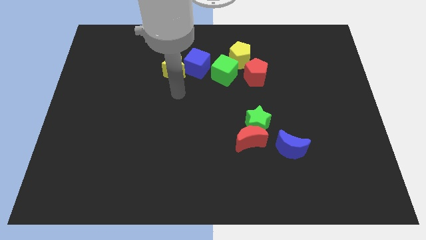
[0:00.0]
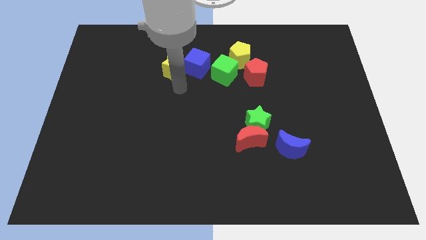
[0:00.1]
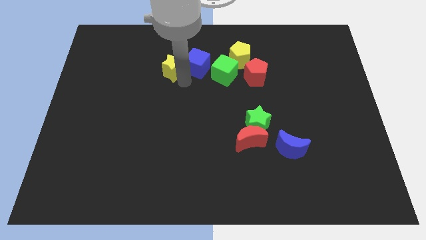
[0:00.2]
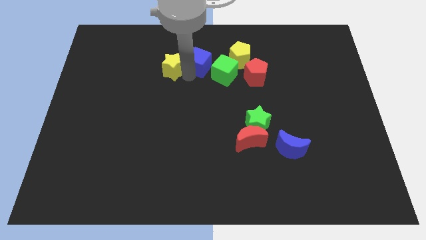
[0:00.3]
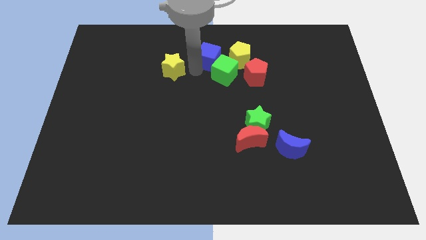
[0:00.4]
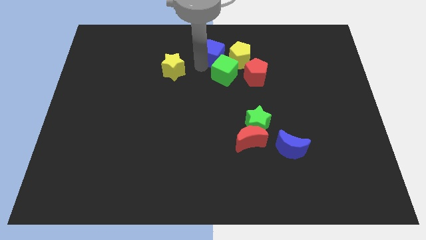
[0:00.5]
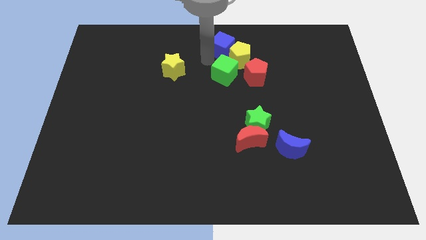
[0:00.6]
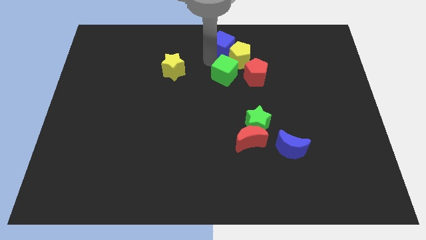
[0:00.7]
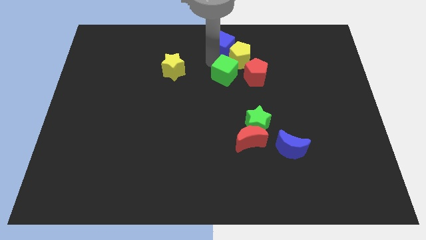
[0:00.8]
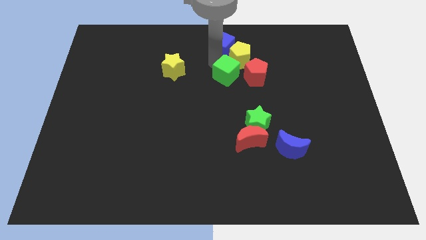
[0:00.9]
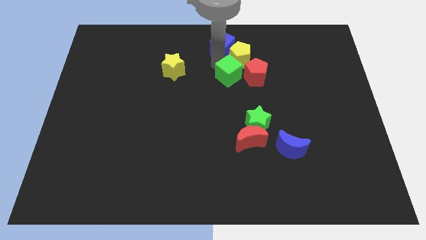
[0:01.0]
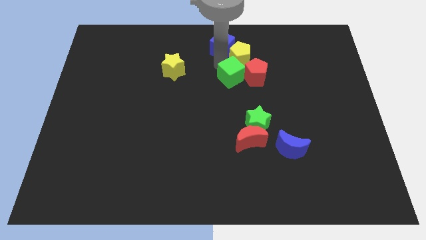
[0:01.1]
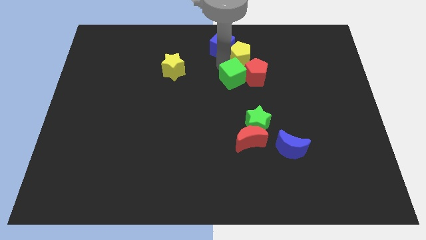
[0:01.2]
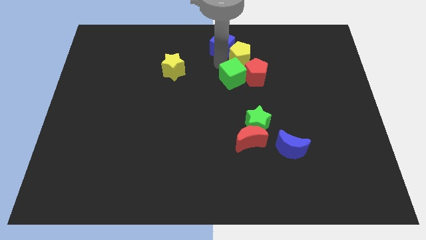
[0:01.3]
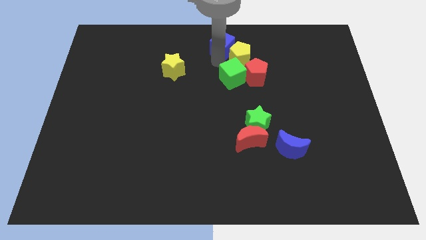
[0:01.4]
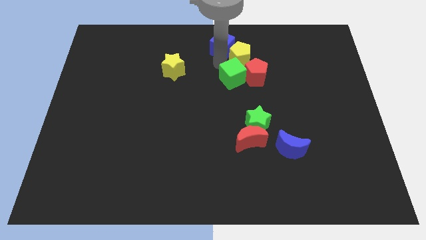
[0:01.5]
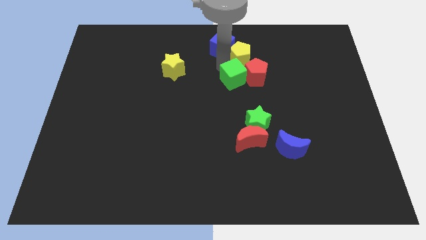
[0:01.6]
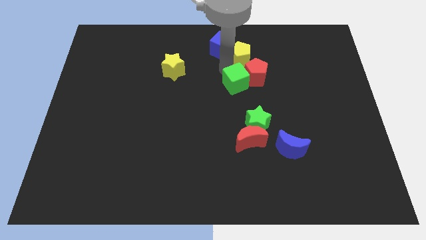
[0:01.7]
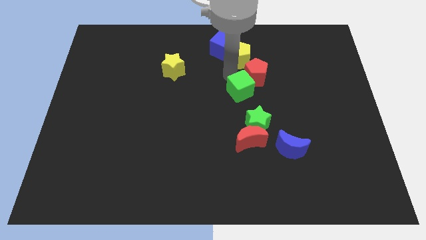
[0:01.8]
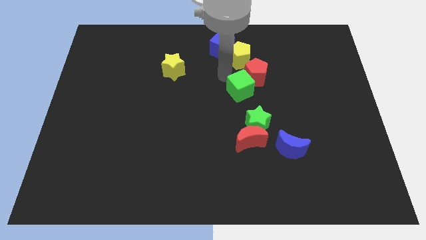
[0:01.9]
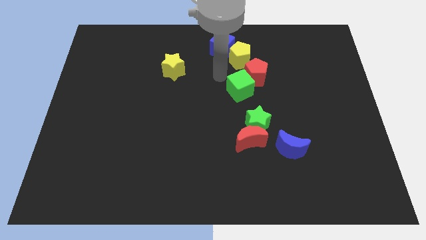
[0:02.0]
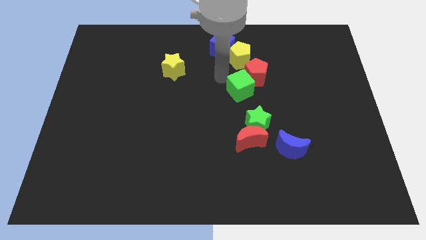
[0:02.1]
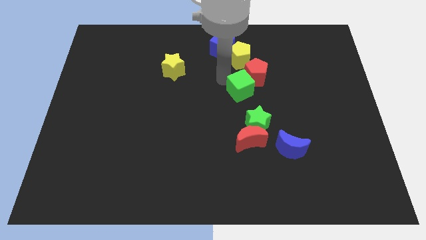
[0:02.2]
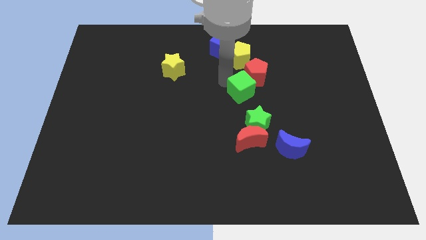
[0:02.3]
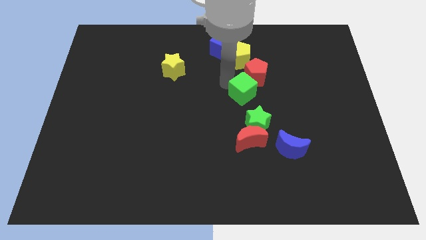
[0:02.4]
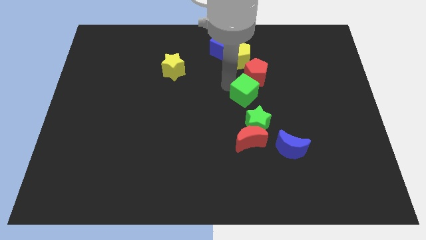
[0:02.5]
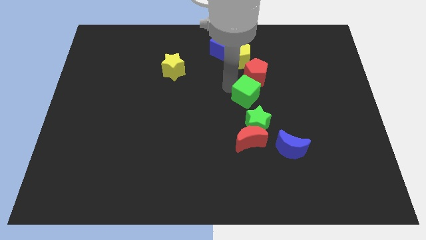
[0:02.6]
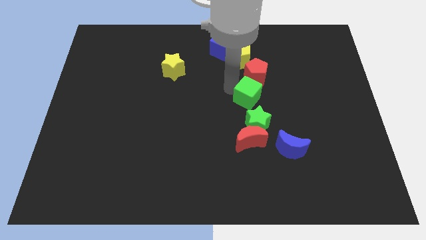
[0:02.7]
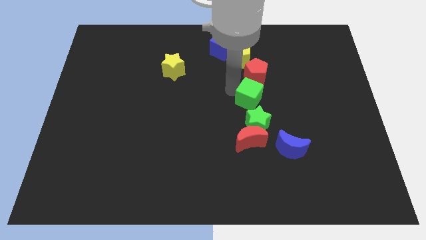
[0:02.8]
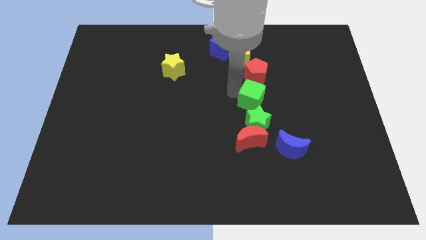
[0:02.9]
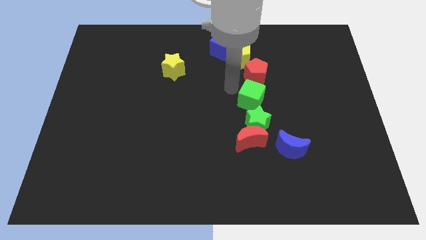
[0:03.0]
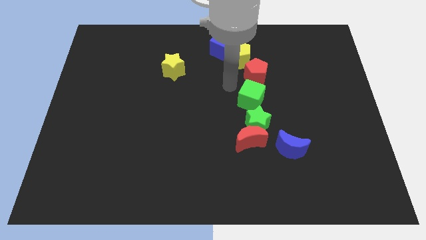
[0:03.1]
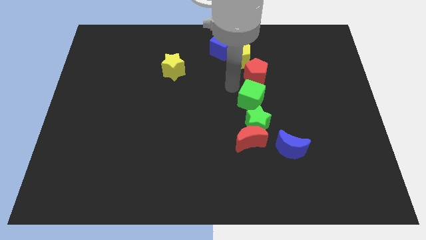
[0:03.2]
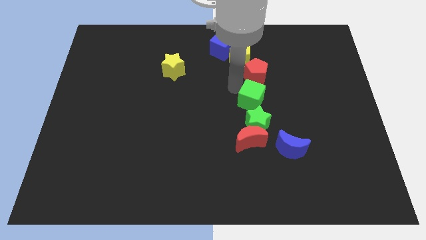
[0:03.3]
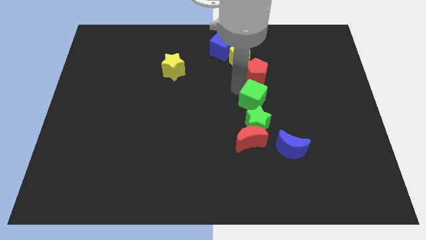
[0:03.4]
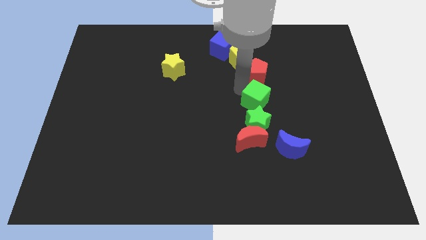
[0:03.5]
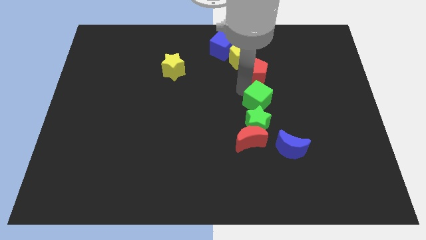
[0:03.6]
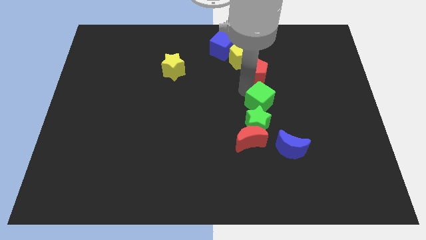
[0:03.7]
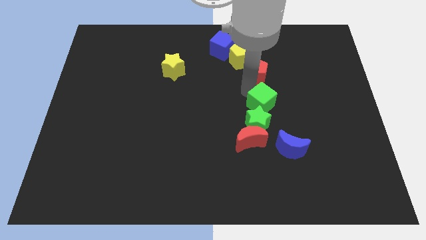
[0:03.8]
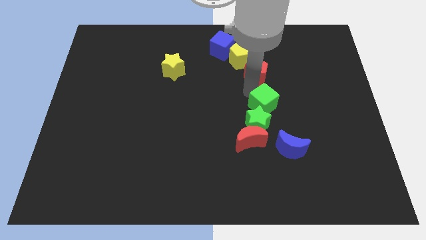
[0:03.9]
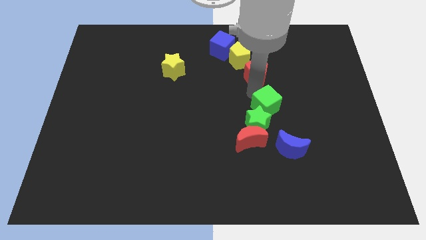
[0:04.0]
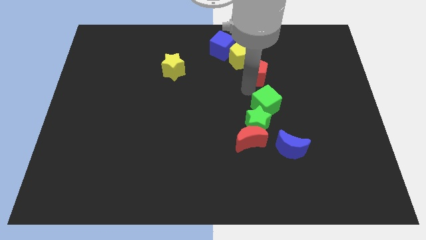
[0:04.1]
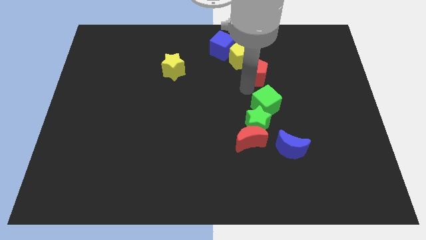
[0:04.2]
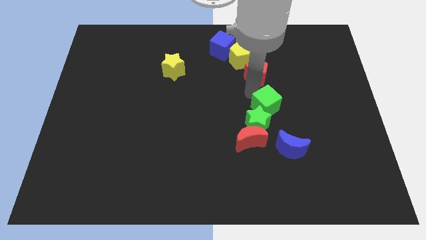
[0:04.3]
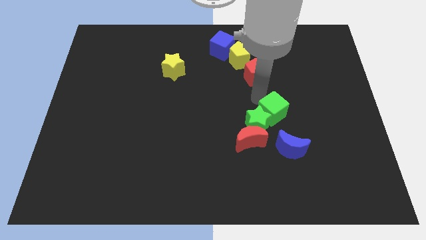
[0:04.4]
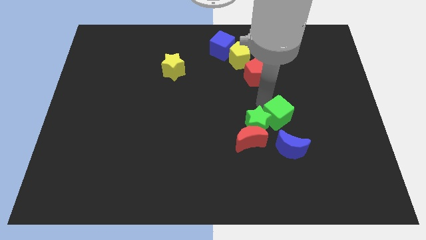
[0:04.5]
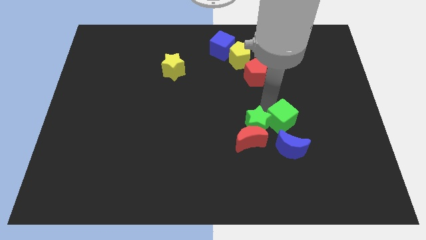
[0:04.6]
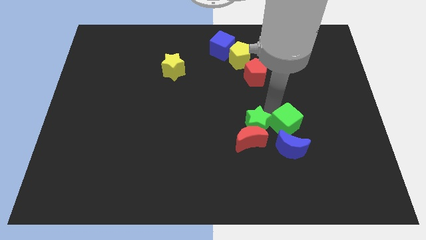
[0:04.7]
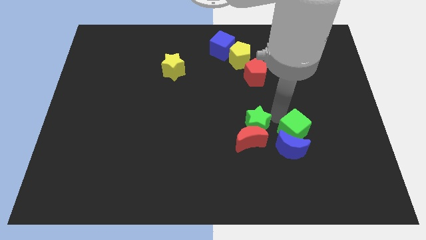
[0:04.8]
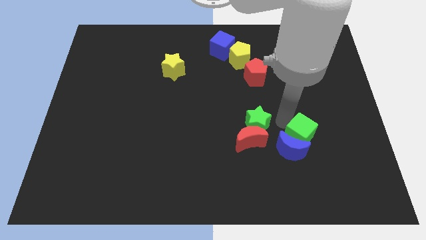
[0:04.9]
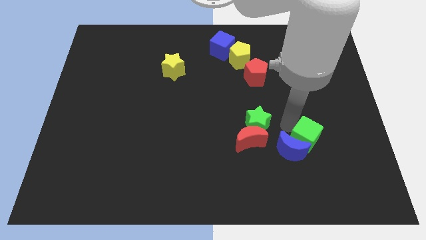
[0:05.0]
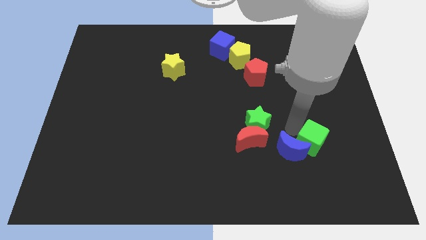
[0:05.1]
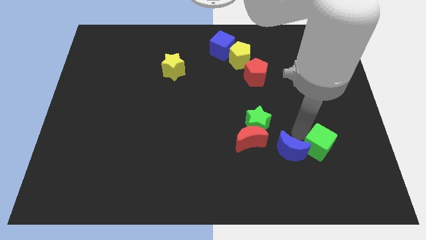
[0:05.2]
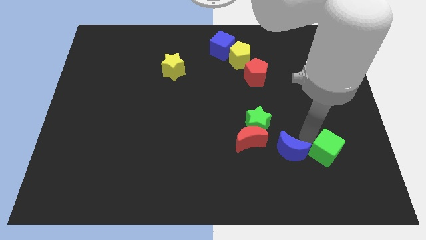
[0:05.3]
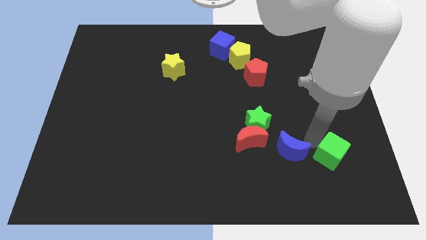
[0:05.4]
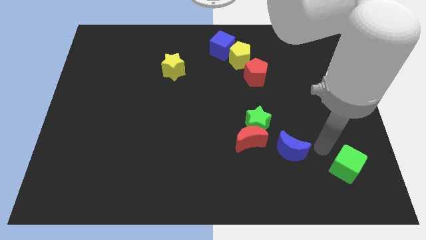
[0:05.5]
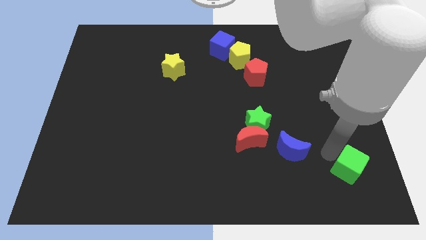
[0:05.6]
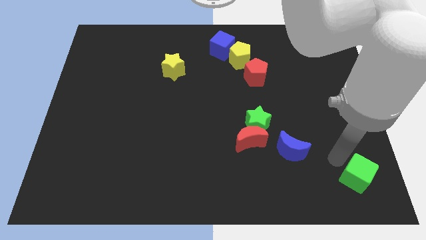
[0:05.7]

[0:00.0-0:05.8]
put the green cube to the lower right corner

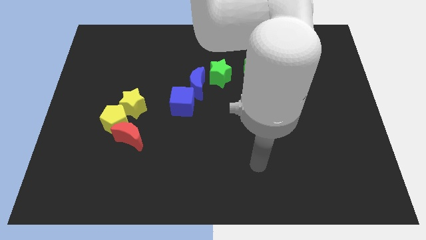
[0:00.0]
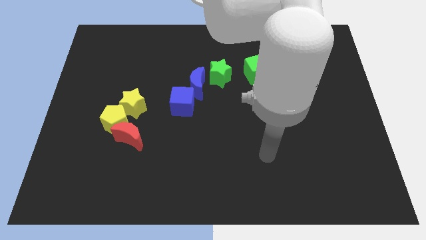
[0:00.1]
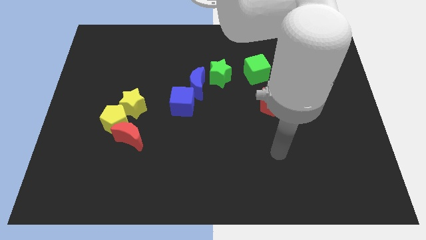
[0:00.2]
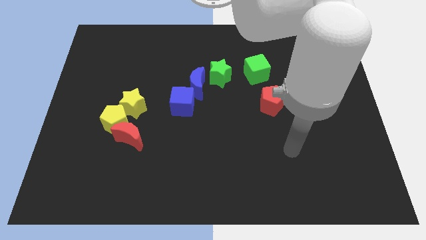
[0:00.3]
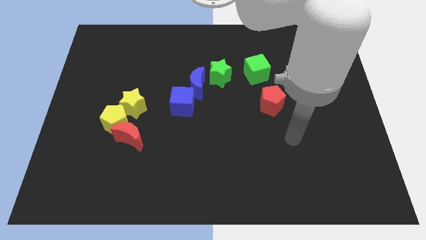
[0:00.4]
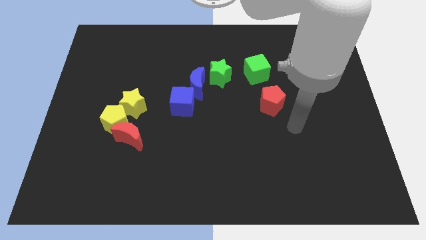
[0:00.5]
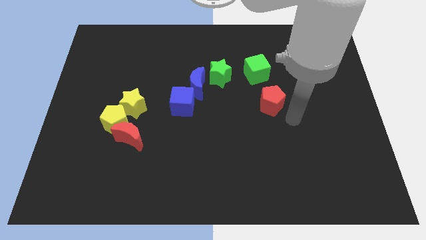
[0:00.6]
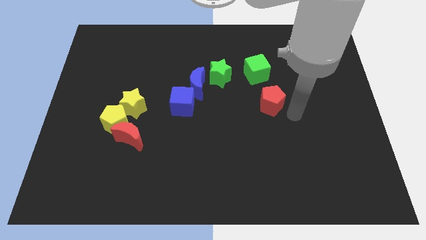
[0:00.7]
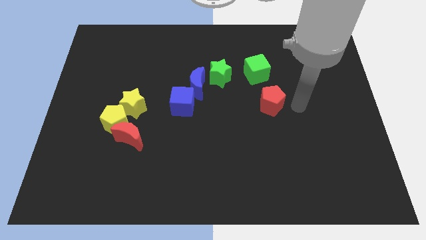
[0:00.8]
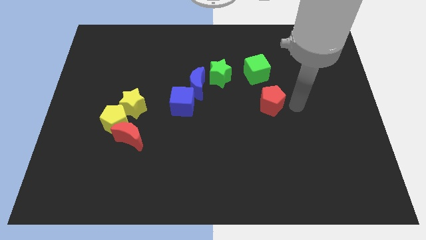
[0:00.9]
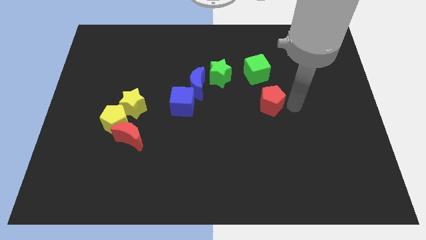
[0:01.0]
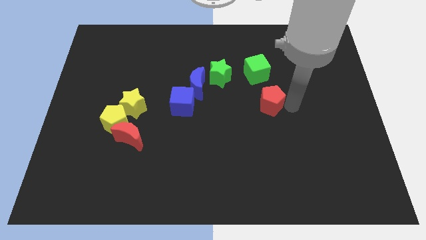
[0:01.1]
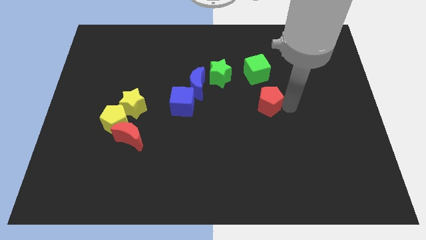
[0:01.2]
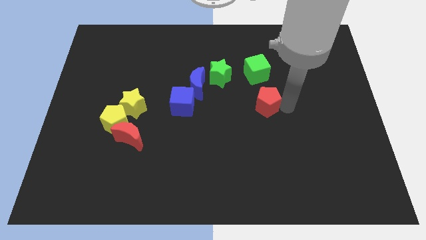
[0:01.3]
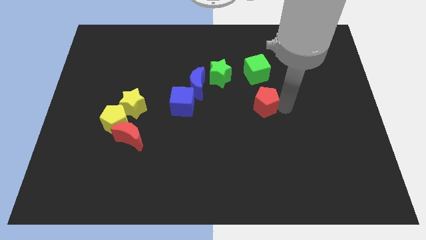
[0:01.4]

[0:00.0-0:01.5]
push the red pentagon to the center of the board
